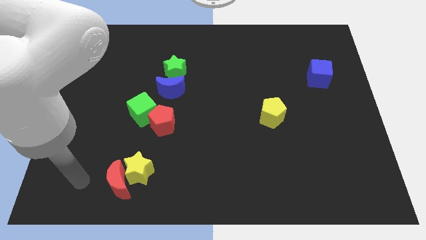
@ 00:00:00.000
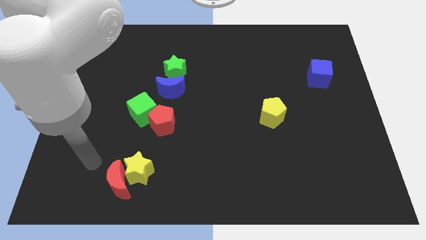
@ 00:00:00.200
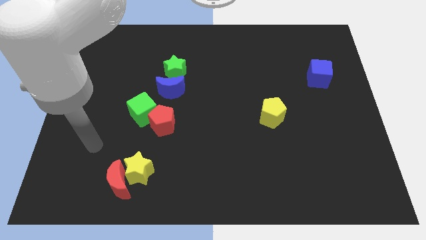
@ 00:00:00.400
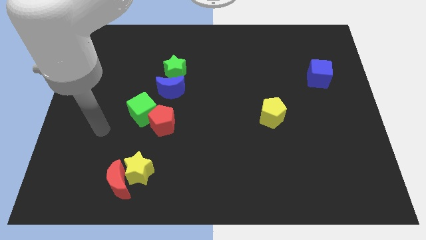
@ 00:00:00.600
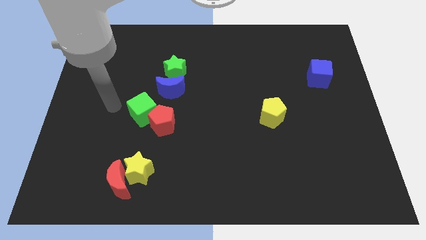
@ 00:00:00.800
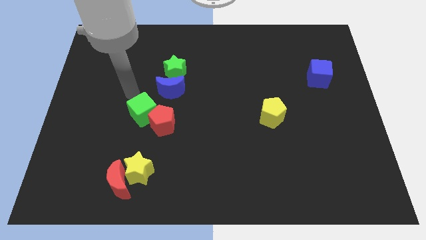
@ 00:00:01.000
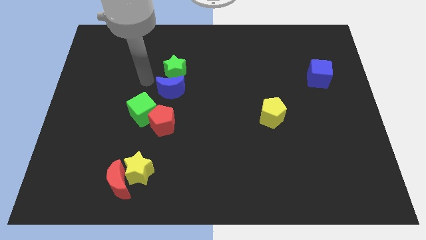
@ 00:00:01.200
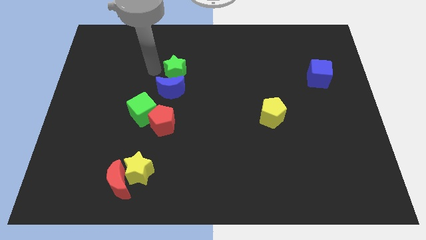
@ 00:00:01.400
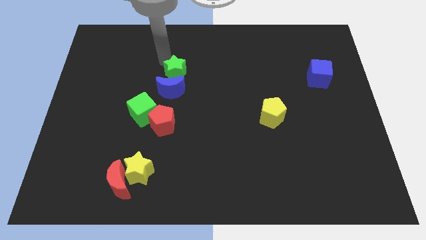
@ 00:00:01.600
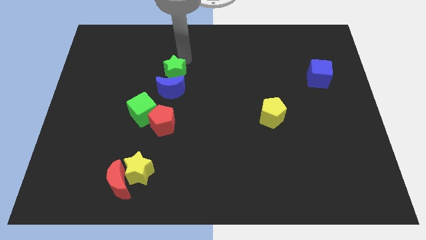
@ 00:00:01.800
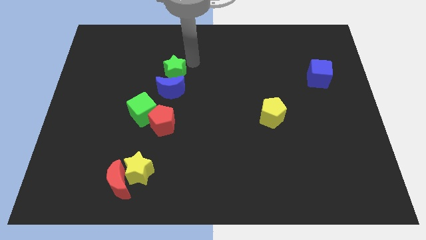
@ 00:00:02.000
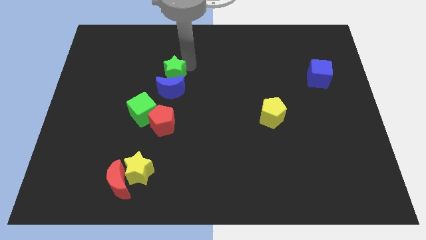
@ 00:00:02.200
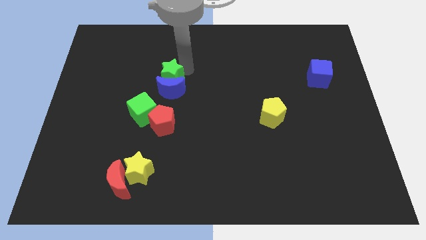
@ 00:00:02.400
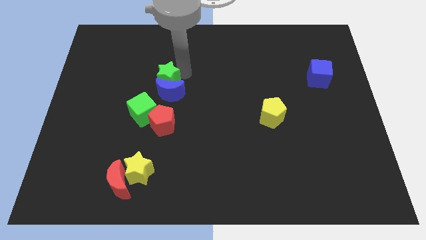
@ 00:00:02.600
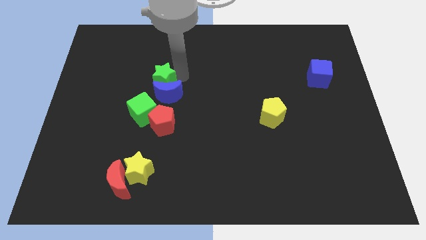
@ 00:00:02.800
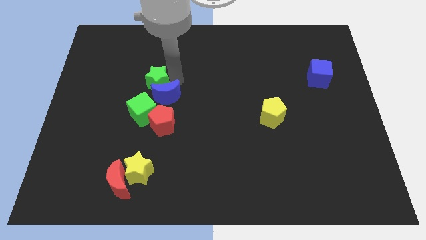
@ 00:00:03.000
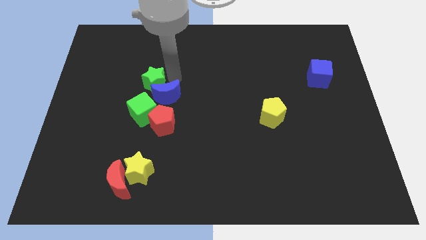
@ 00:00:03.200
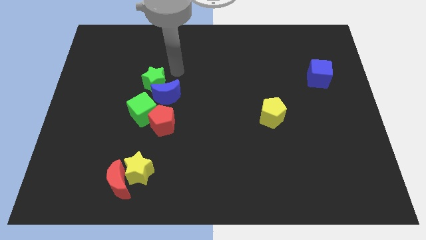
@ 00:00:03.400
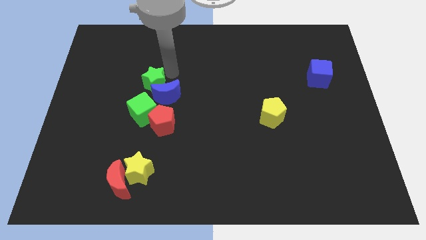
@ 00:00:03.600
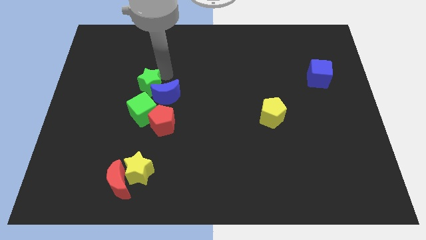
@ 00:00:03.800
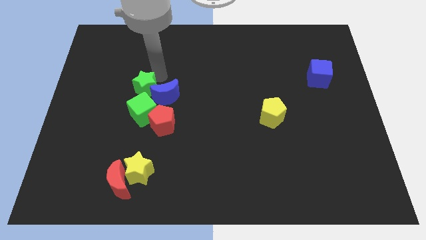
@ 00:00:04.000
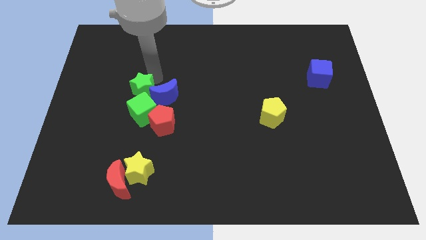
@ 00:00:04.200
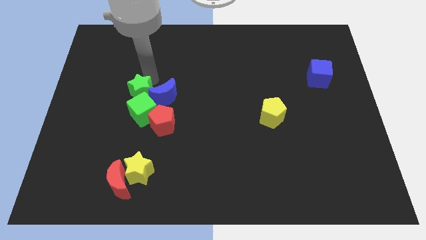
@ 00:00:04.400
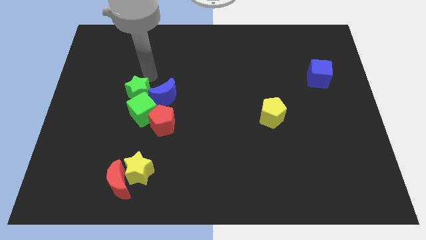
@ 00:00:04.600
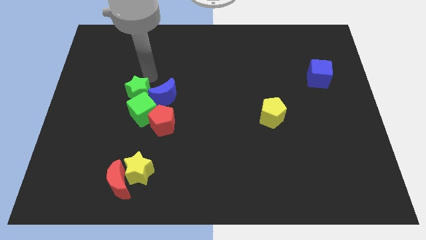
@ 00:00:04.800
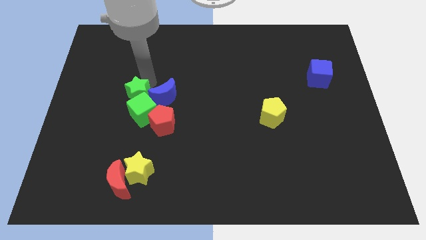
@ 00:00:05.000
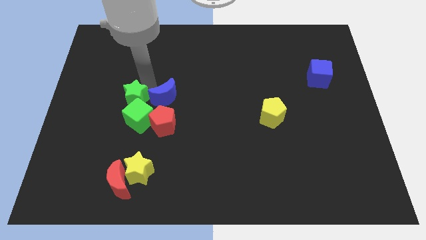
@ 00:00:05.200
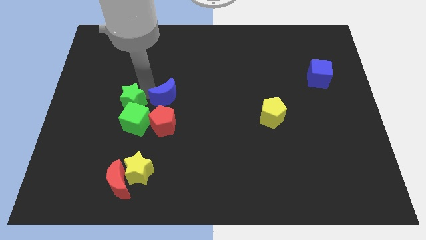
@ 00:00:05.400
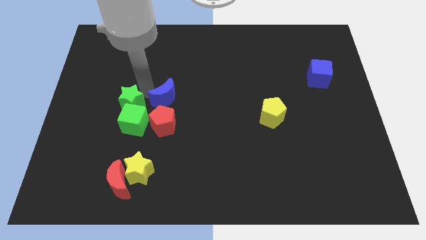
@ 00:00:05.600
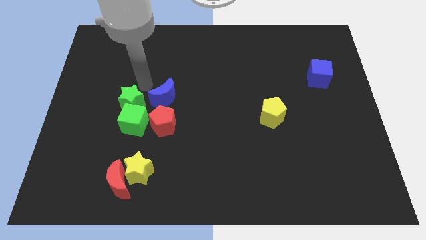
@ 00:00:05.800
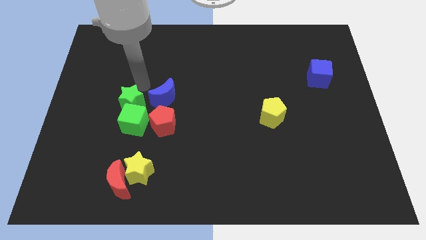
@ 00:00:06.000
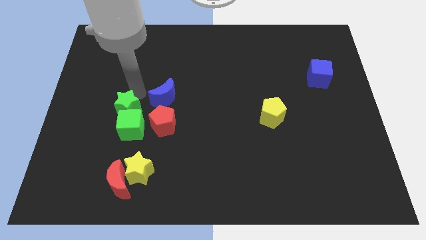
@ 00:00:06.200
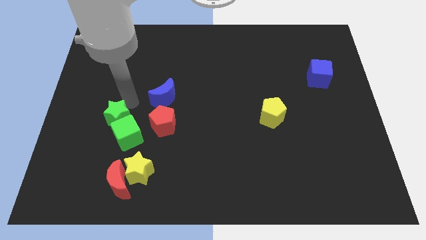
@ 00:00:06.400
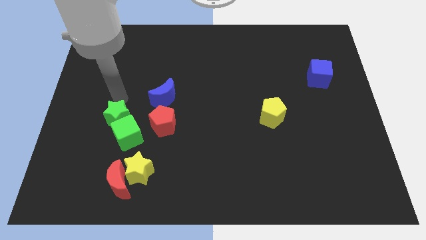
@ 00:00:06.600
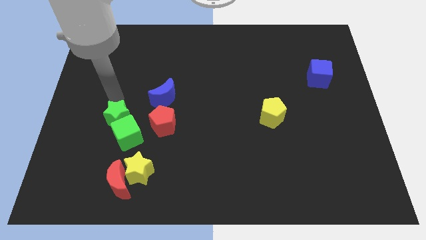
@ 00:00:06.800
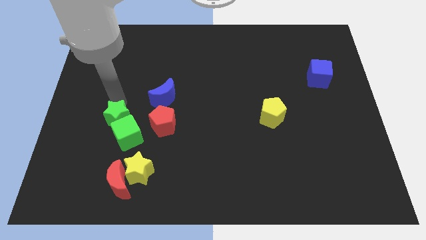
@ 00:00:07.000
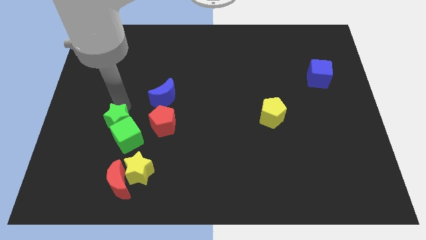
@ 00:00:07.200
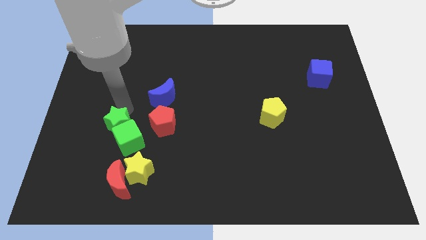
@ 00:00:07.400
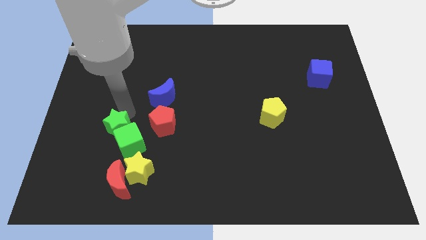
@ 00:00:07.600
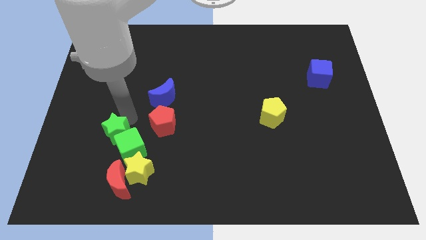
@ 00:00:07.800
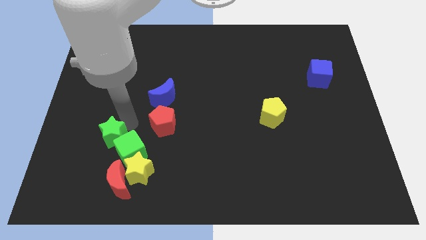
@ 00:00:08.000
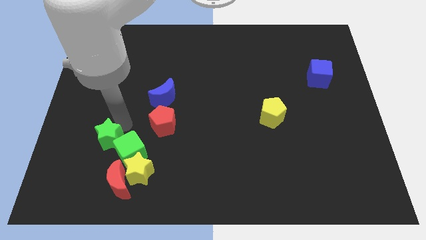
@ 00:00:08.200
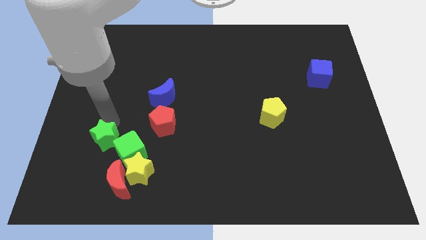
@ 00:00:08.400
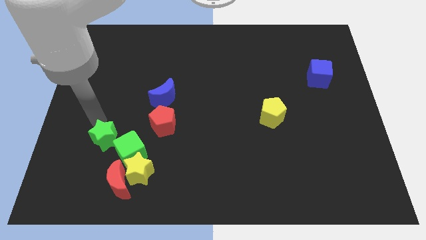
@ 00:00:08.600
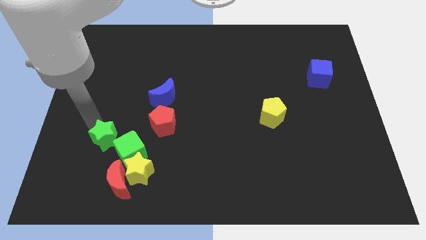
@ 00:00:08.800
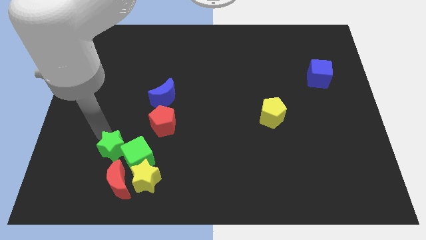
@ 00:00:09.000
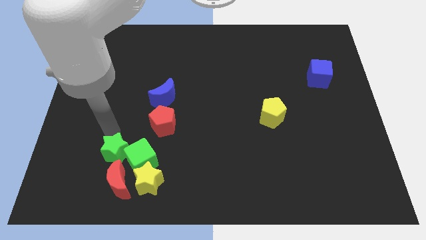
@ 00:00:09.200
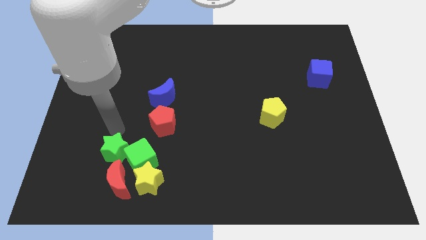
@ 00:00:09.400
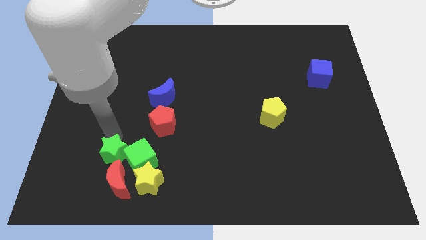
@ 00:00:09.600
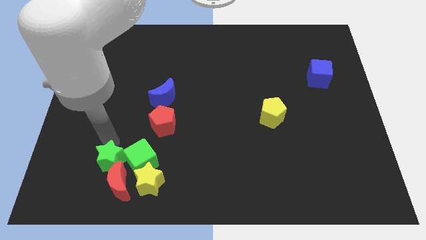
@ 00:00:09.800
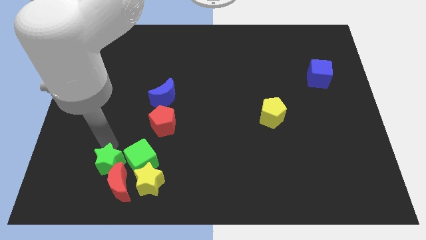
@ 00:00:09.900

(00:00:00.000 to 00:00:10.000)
slide the green star towards the red moon

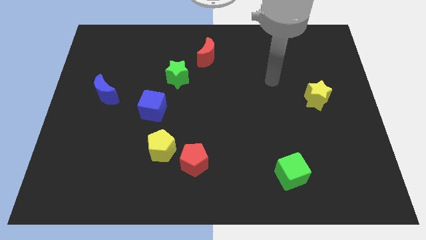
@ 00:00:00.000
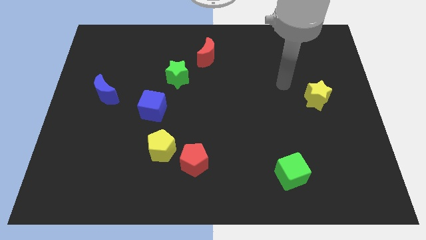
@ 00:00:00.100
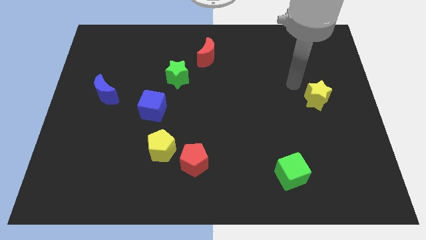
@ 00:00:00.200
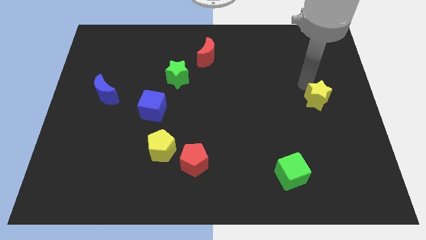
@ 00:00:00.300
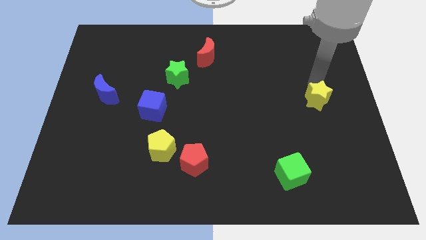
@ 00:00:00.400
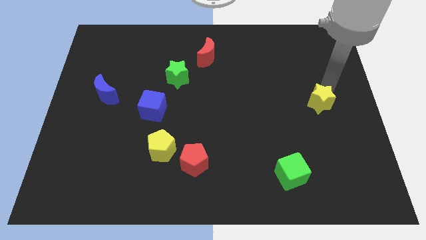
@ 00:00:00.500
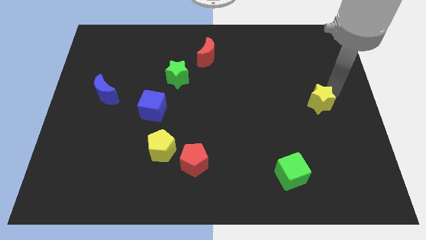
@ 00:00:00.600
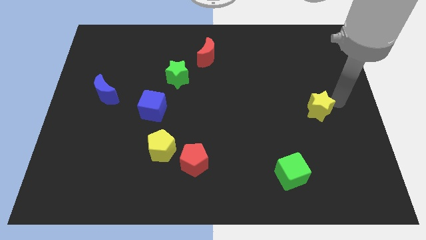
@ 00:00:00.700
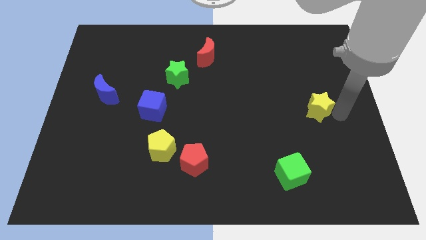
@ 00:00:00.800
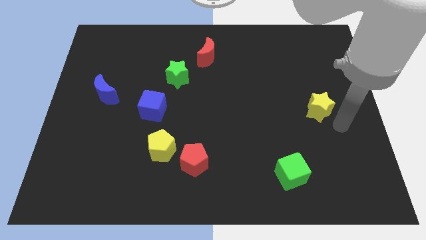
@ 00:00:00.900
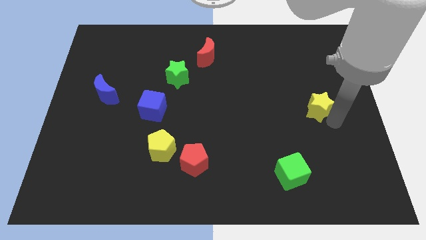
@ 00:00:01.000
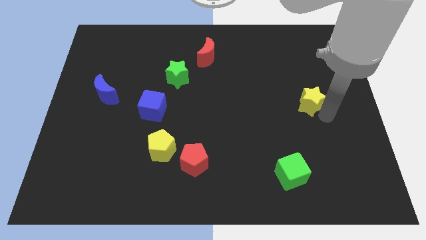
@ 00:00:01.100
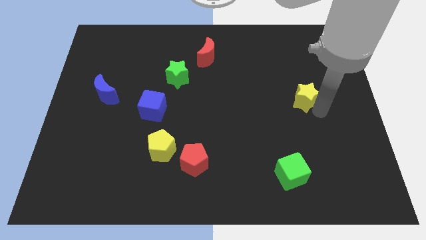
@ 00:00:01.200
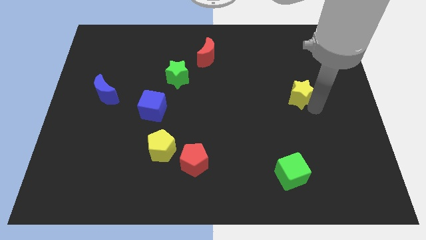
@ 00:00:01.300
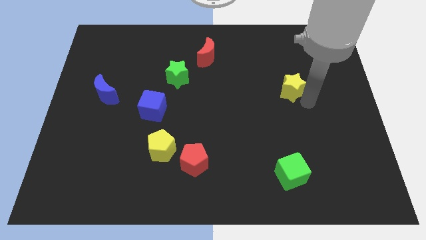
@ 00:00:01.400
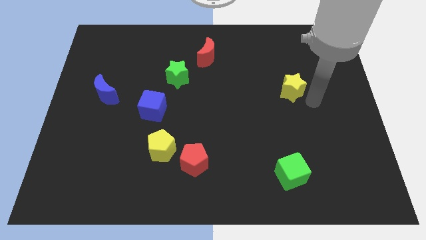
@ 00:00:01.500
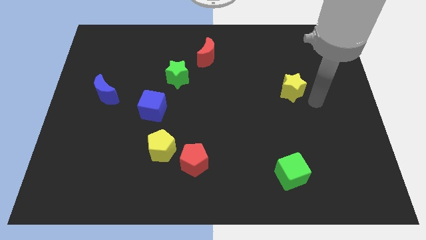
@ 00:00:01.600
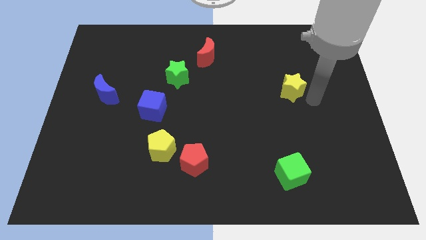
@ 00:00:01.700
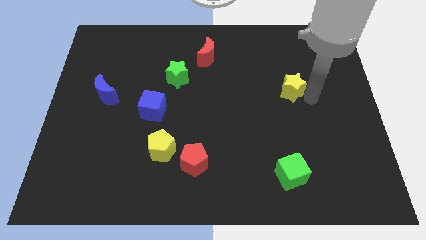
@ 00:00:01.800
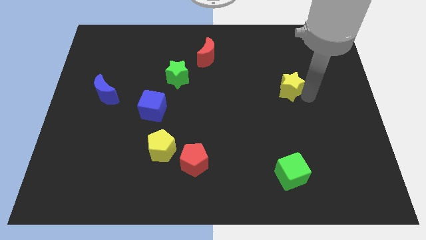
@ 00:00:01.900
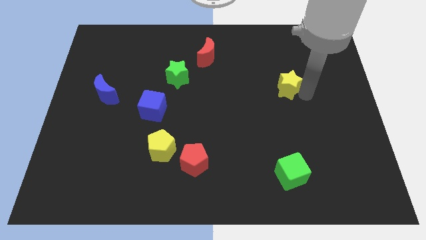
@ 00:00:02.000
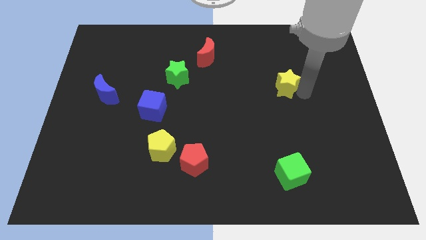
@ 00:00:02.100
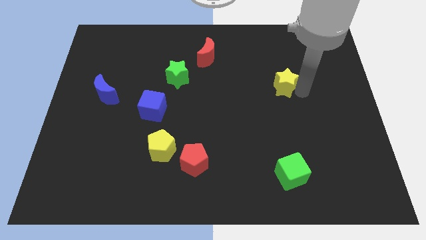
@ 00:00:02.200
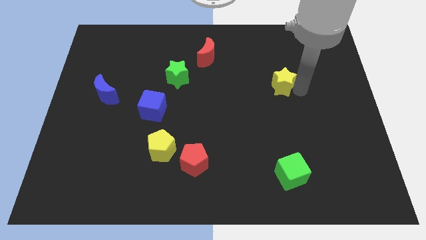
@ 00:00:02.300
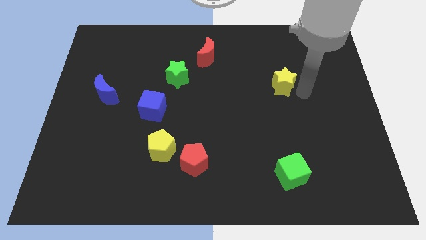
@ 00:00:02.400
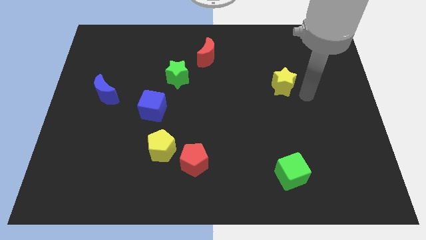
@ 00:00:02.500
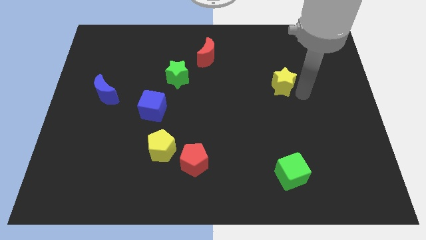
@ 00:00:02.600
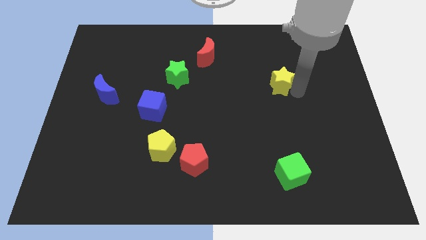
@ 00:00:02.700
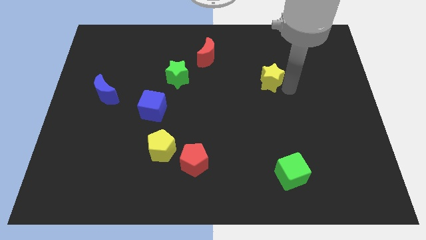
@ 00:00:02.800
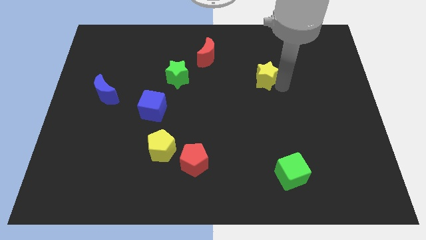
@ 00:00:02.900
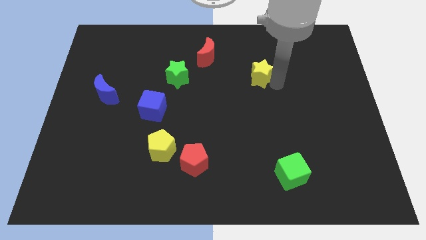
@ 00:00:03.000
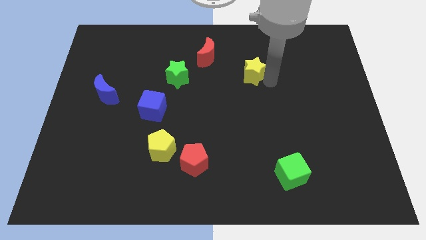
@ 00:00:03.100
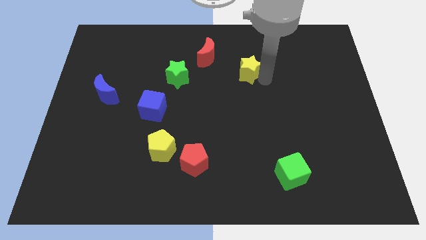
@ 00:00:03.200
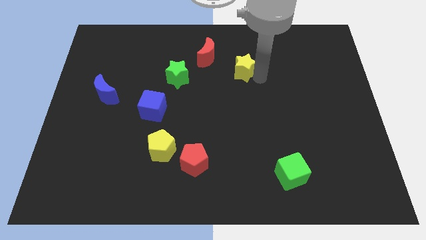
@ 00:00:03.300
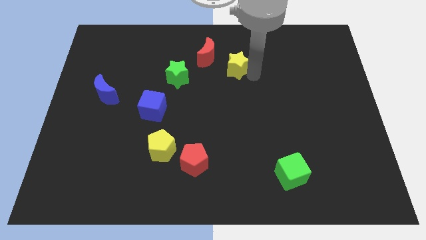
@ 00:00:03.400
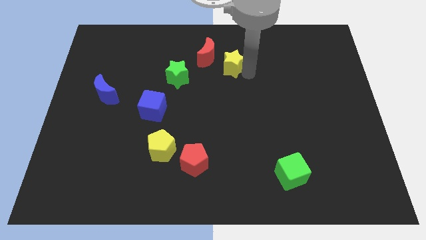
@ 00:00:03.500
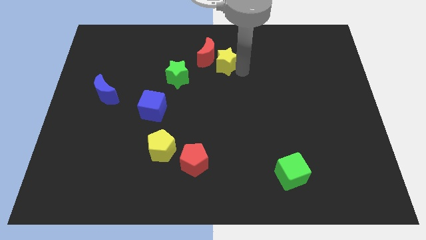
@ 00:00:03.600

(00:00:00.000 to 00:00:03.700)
put the yellow star towards the red moon
